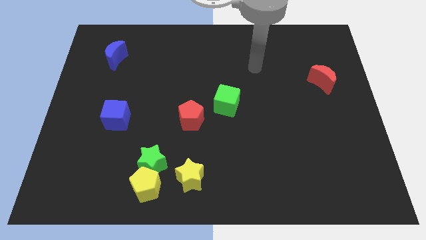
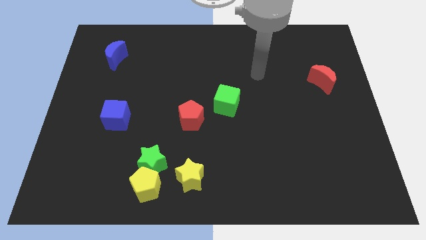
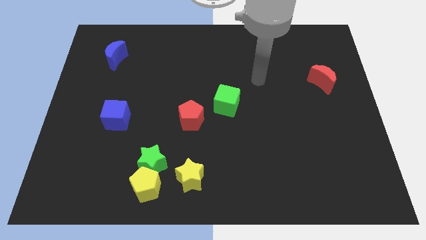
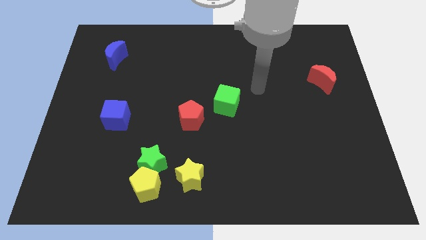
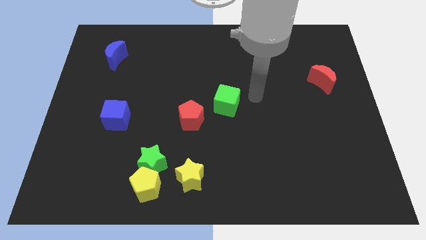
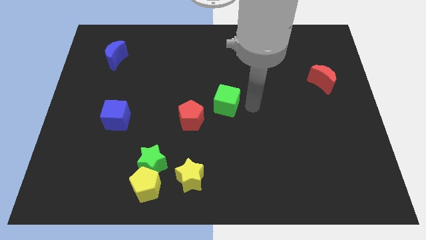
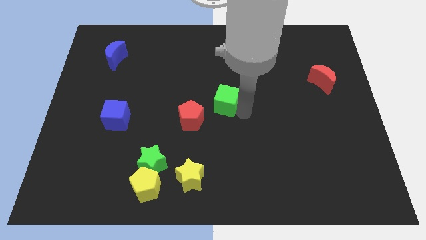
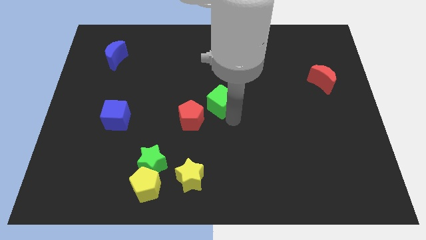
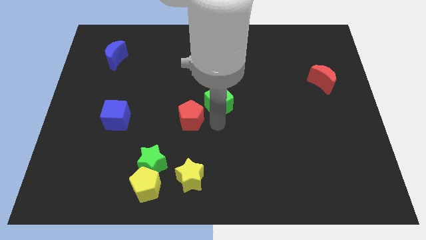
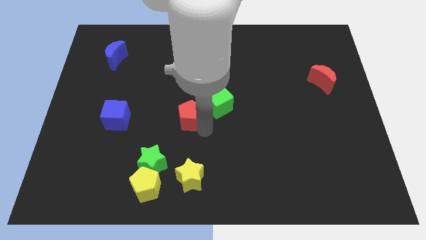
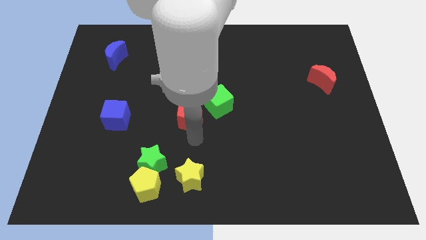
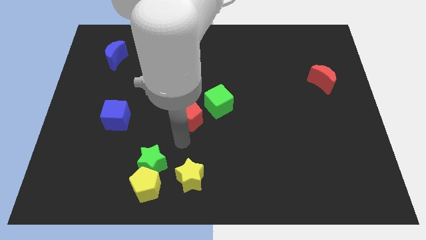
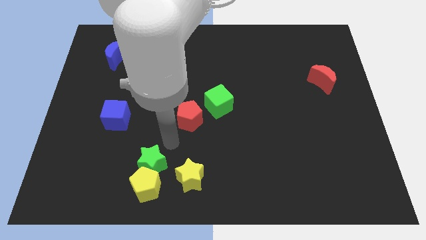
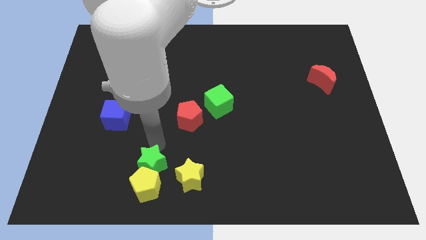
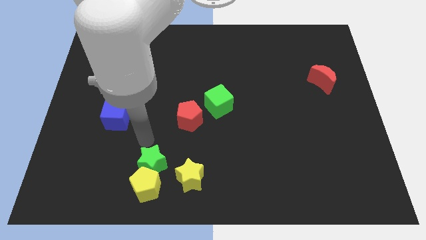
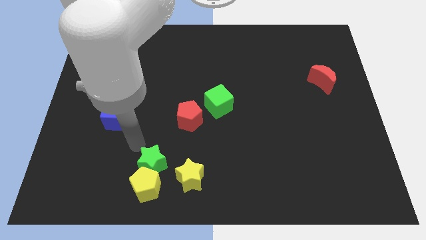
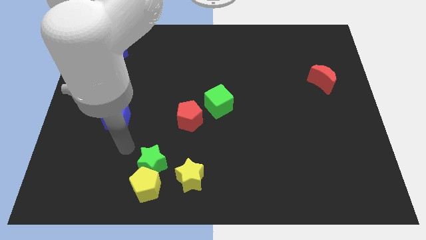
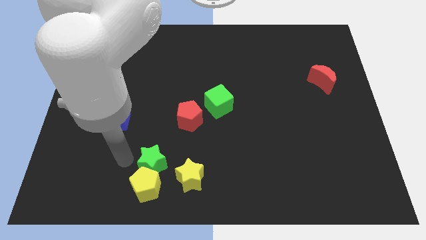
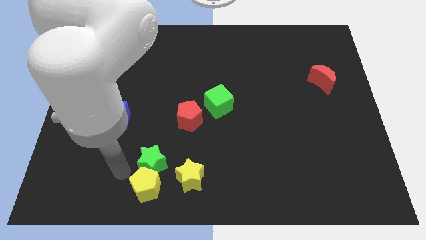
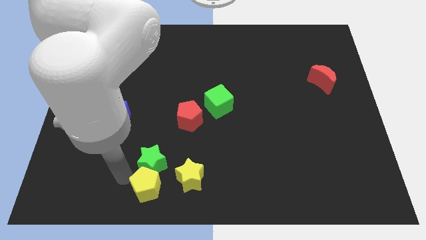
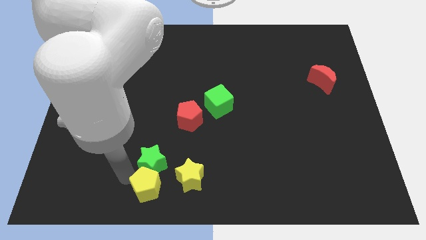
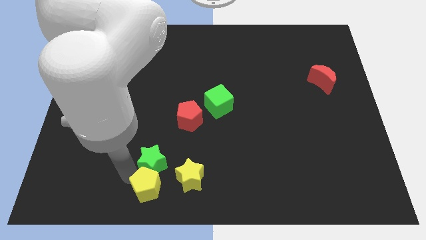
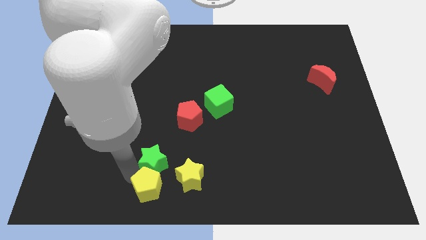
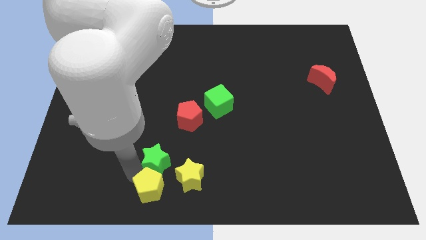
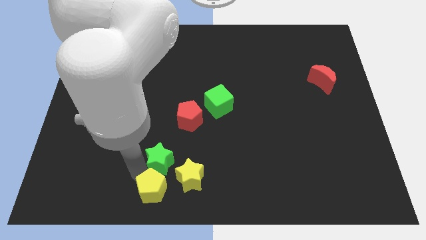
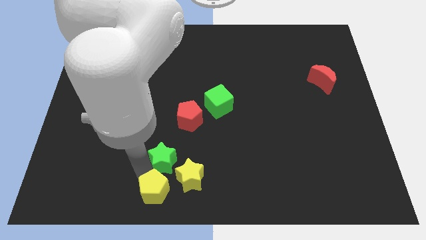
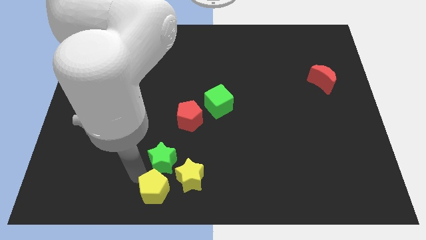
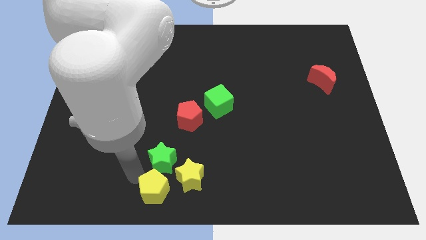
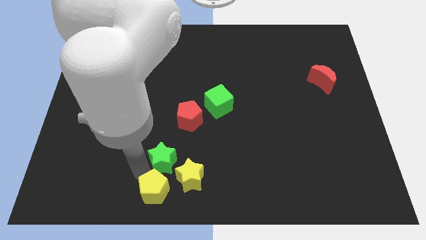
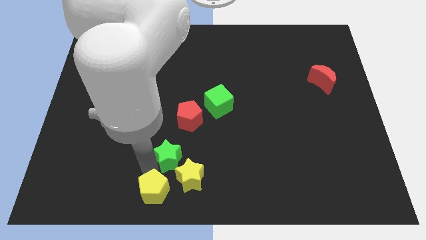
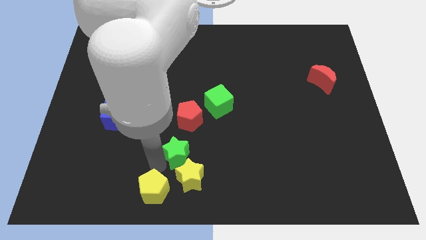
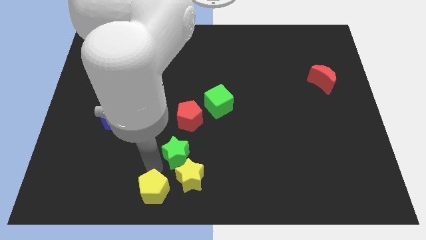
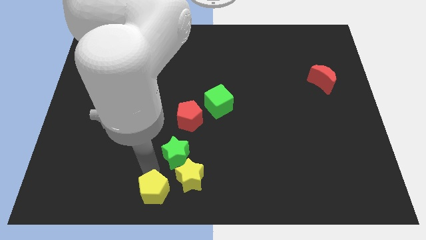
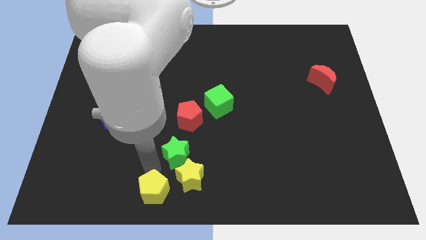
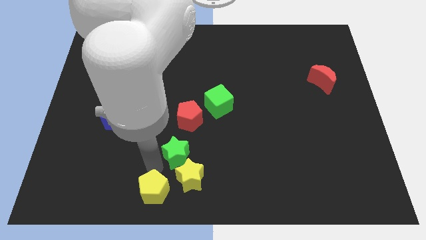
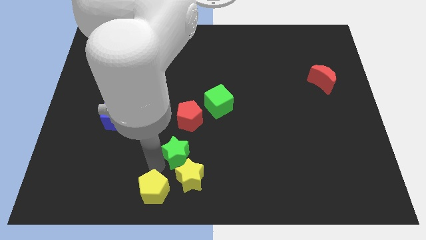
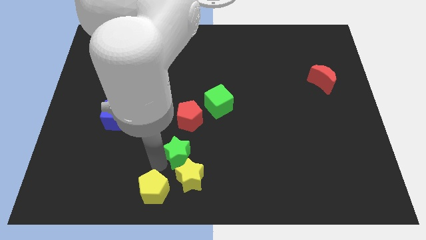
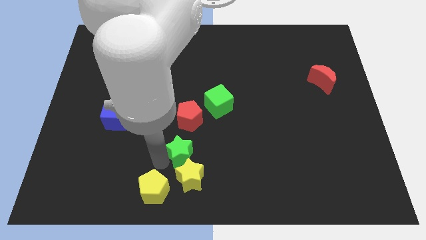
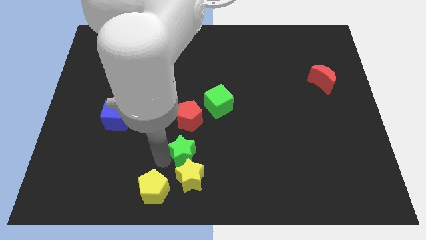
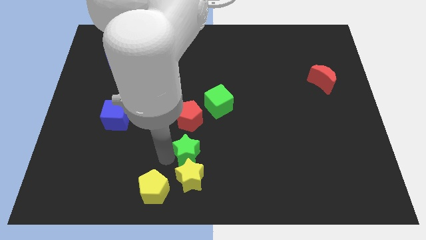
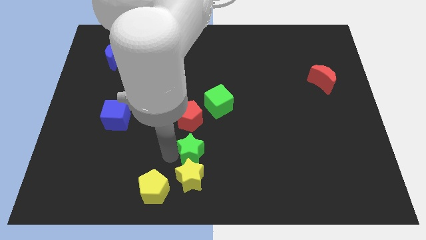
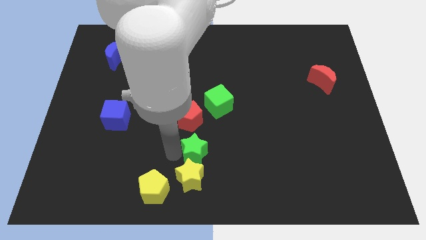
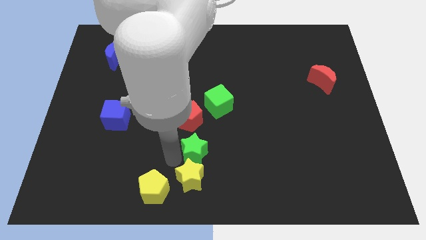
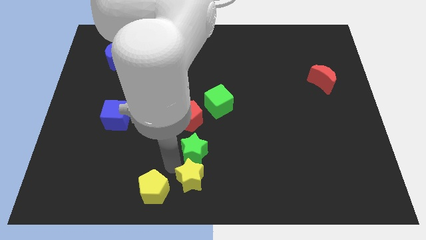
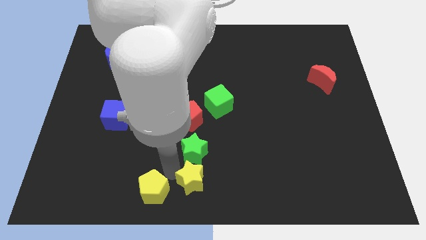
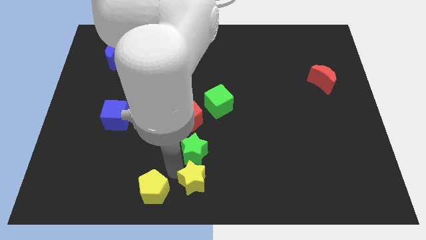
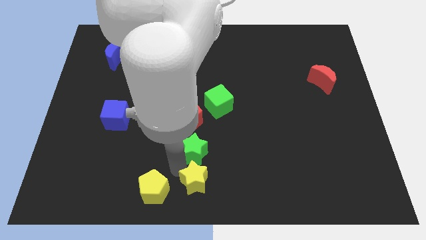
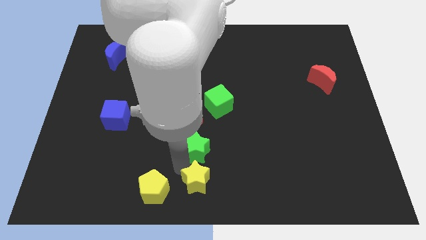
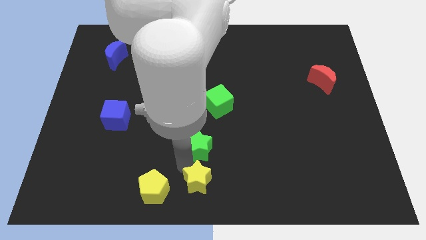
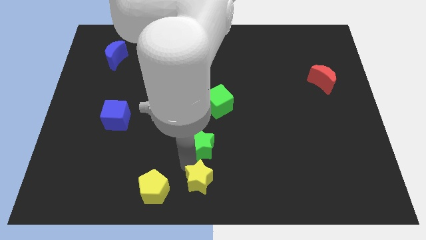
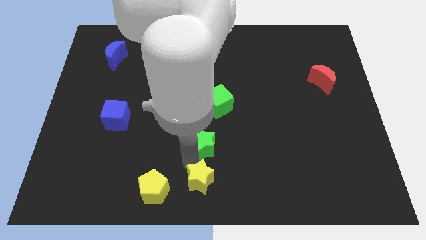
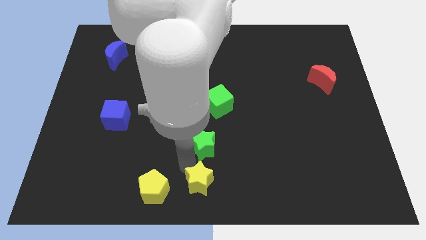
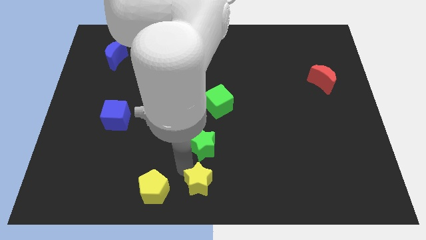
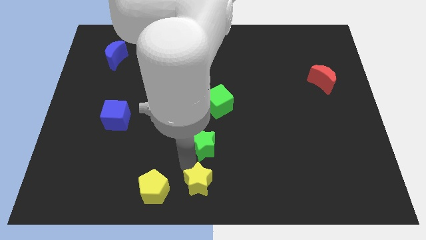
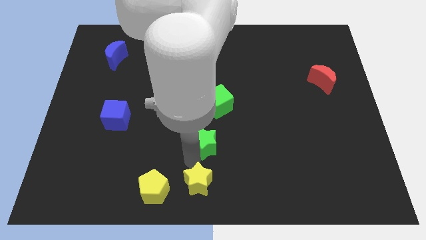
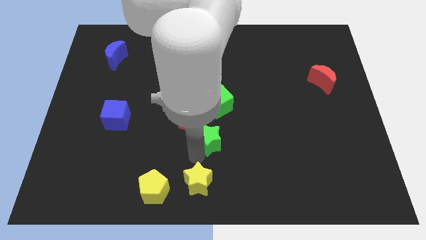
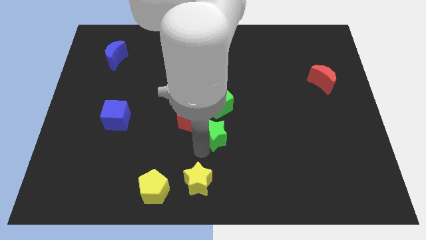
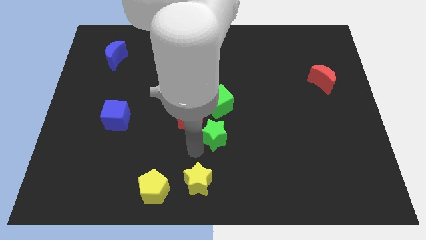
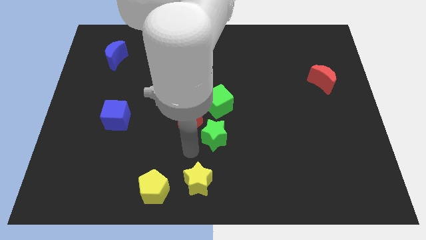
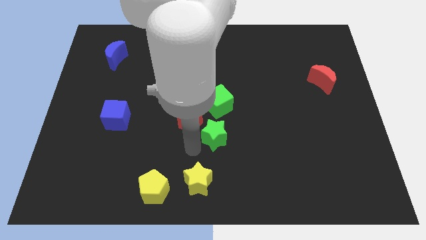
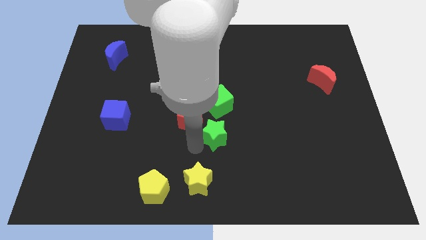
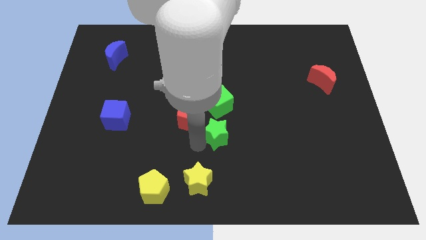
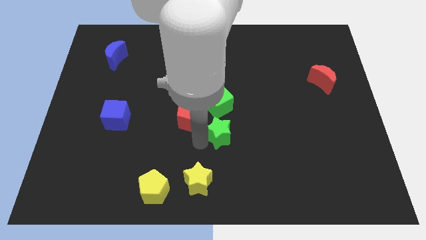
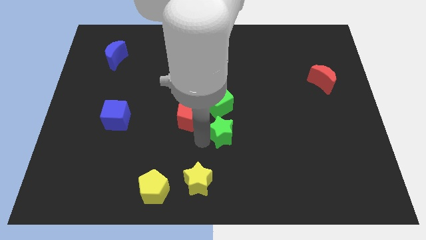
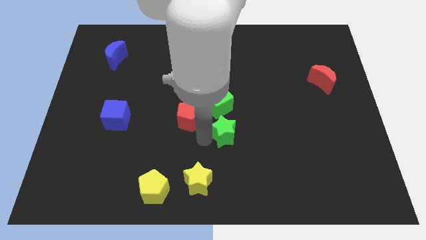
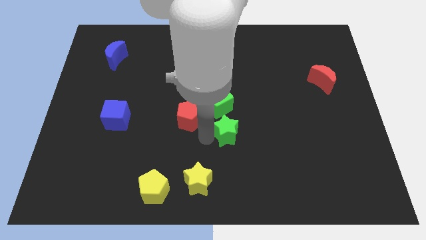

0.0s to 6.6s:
move the green star to the bottom right of the green cube
